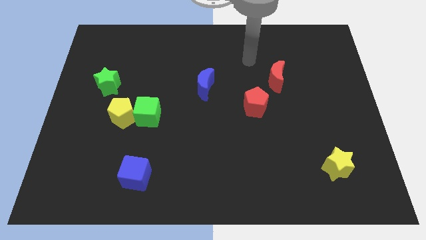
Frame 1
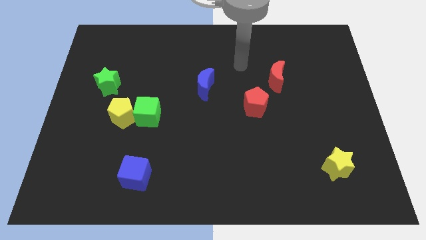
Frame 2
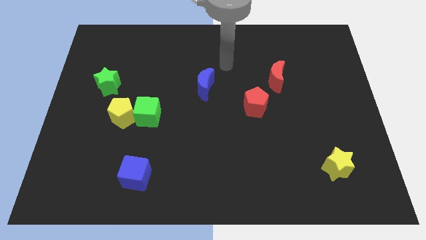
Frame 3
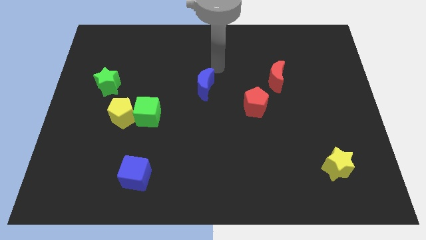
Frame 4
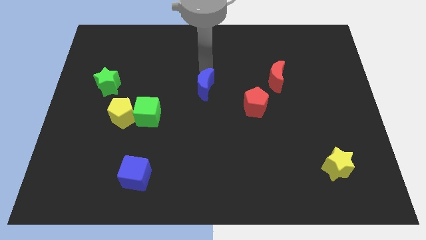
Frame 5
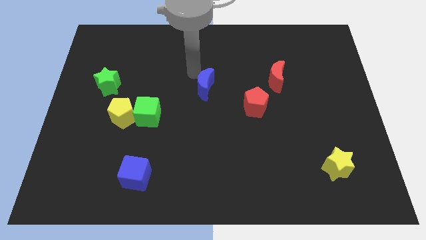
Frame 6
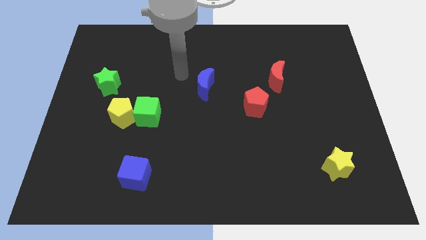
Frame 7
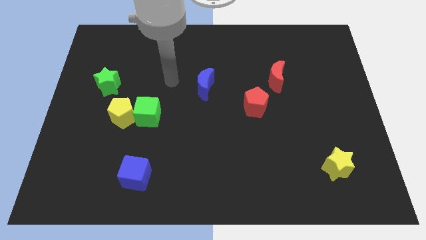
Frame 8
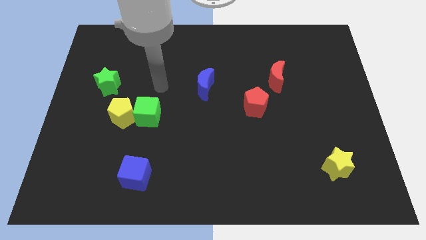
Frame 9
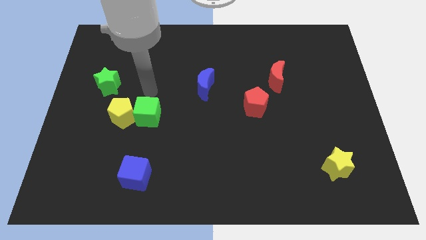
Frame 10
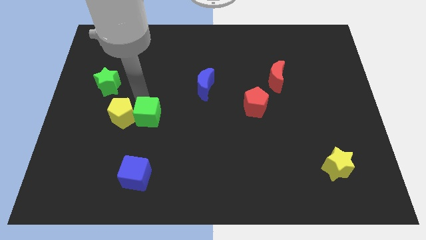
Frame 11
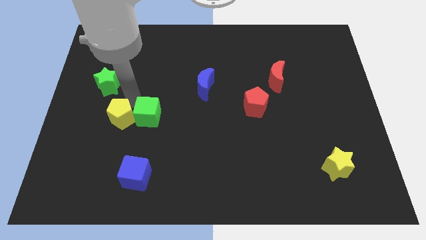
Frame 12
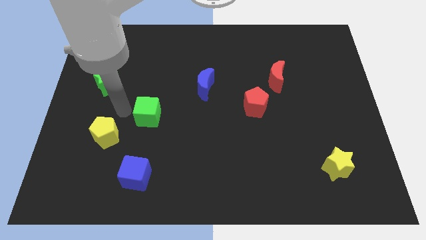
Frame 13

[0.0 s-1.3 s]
pull the green cube apart from the yellow pentagon

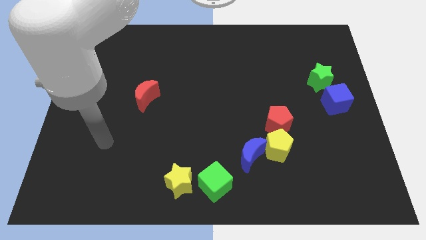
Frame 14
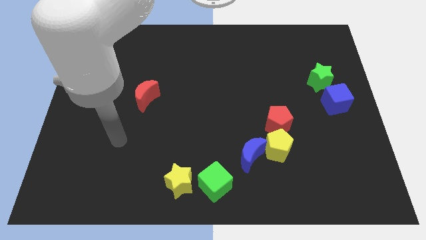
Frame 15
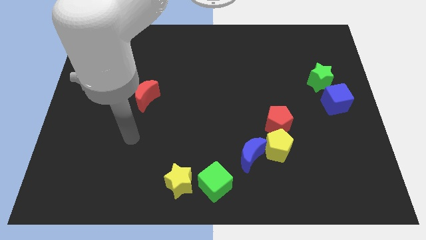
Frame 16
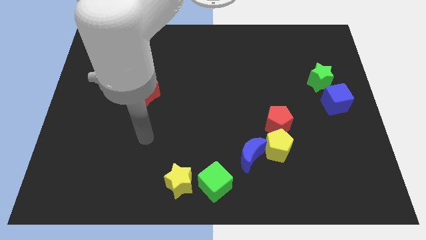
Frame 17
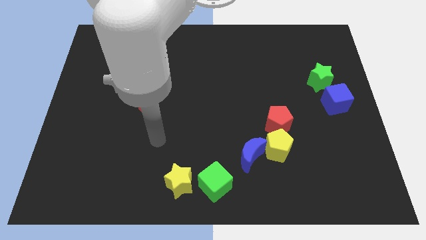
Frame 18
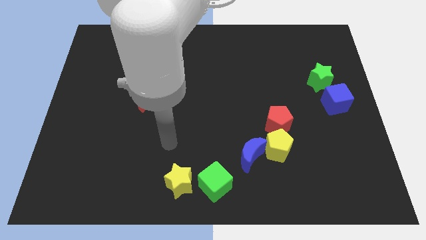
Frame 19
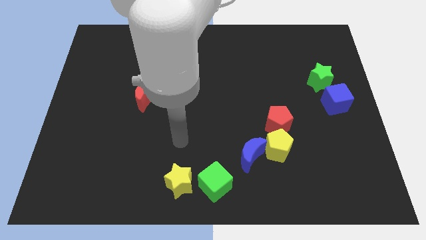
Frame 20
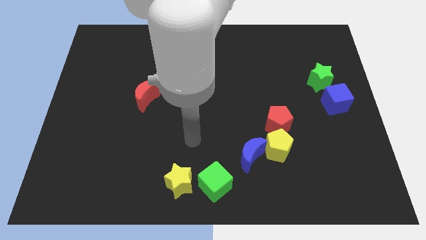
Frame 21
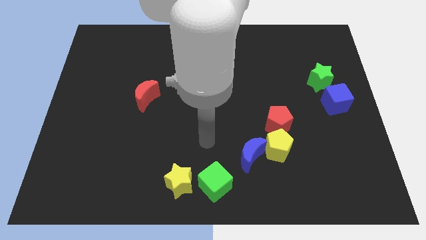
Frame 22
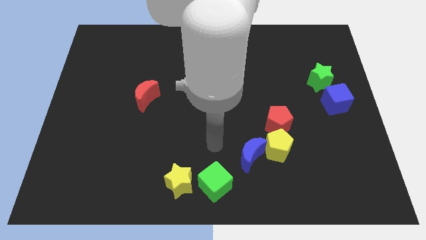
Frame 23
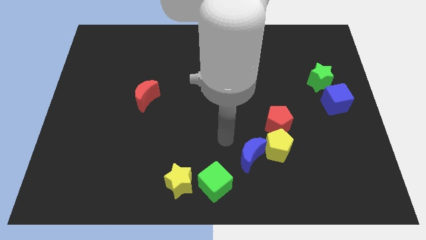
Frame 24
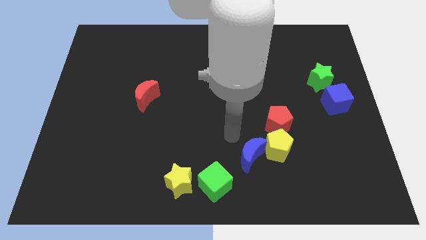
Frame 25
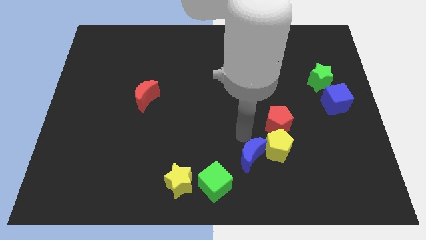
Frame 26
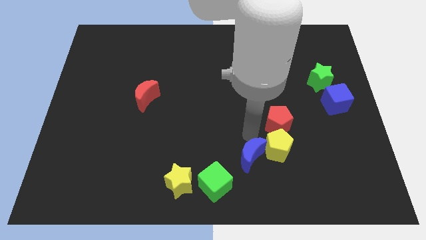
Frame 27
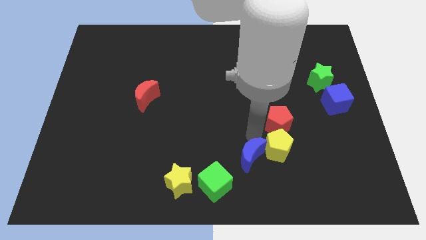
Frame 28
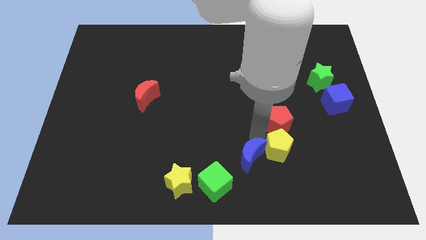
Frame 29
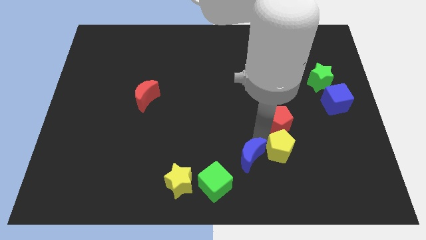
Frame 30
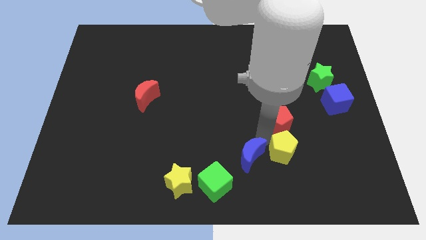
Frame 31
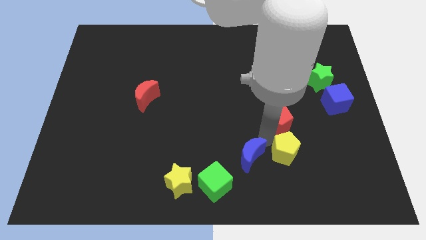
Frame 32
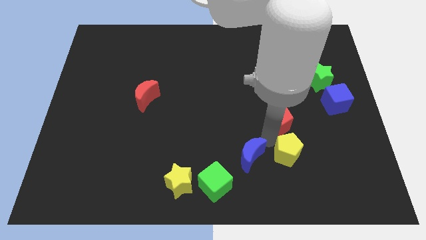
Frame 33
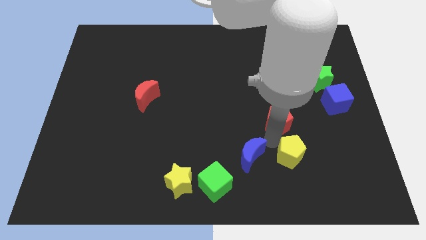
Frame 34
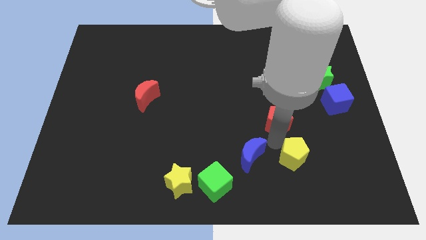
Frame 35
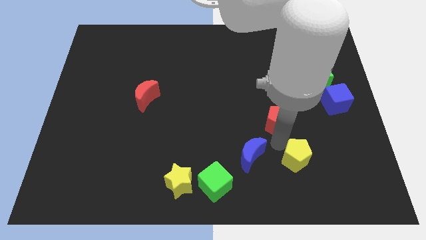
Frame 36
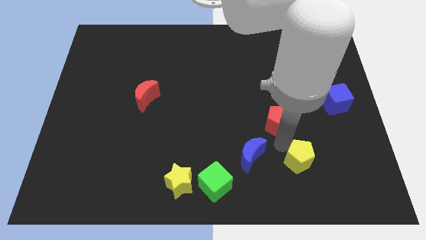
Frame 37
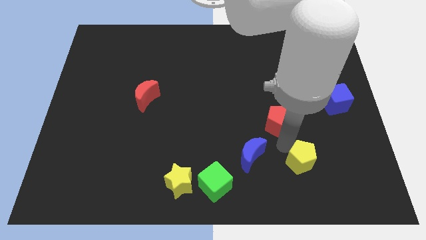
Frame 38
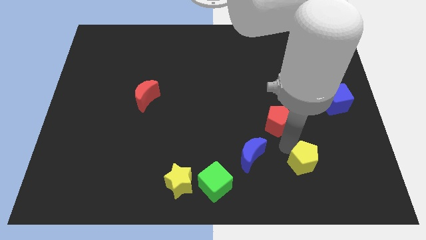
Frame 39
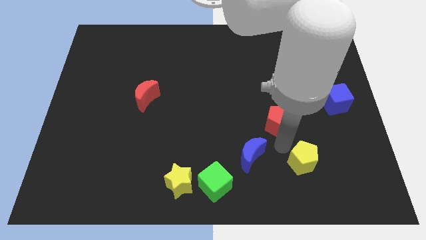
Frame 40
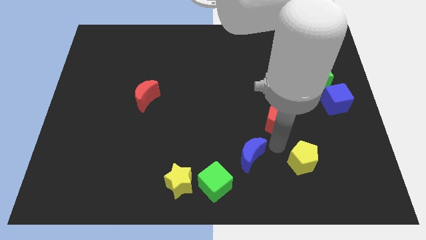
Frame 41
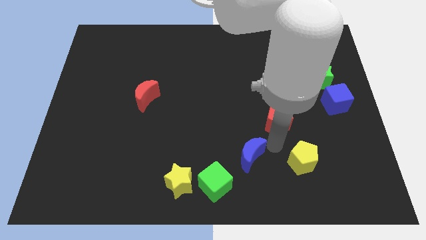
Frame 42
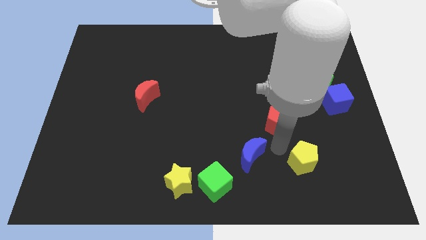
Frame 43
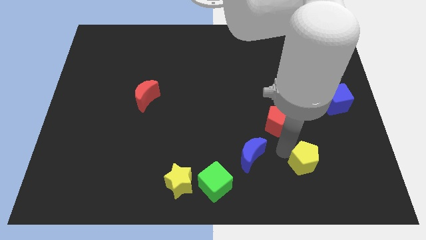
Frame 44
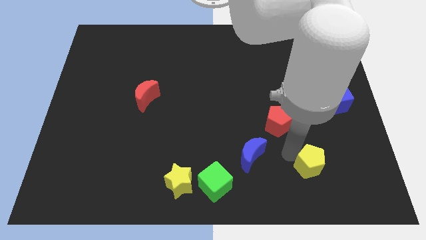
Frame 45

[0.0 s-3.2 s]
move the yellow pentagon away from the blue moon and red pentagon

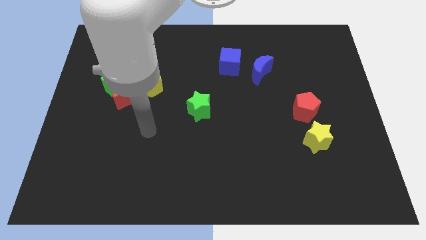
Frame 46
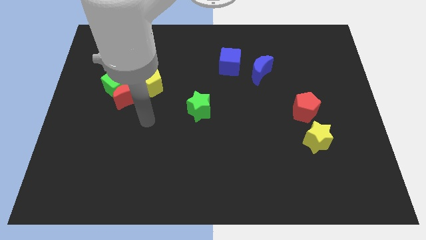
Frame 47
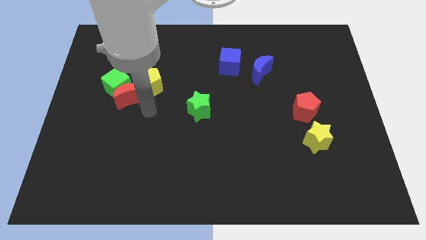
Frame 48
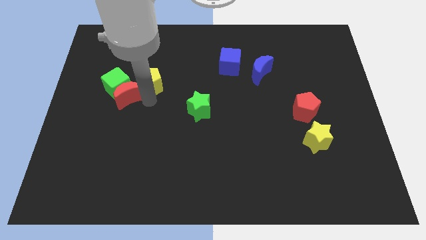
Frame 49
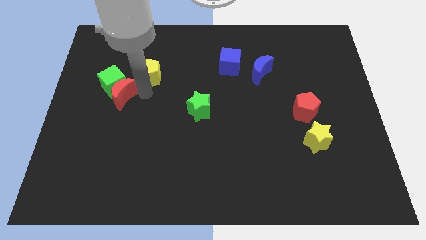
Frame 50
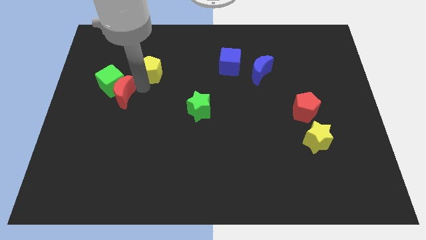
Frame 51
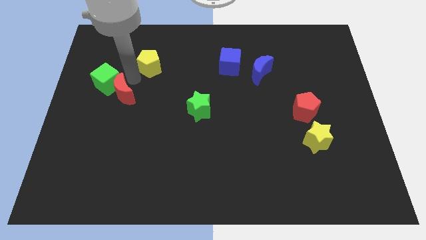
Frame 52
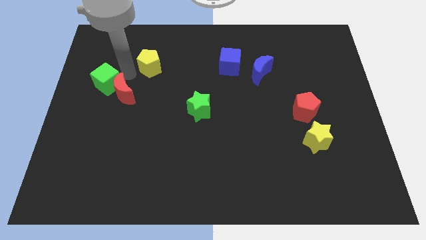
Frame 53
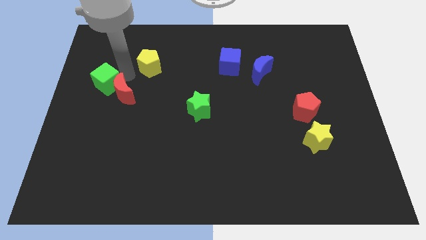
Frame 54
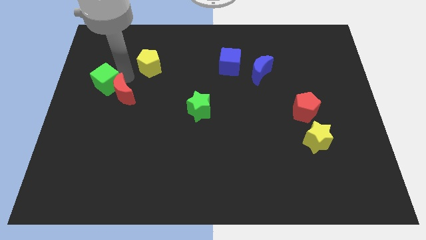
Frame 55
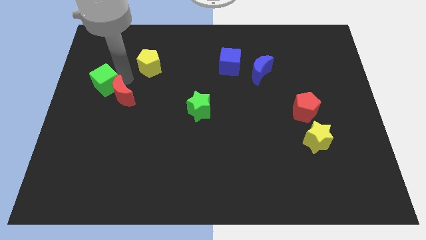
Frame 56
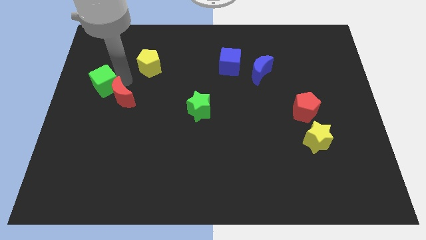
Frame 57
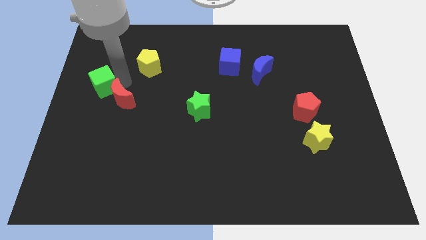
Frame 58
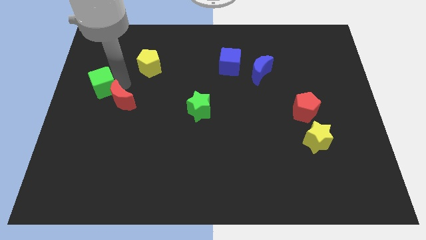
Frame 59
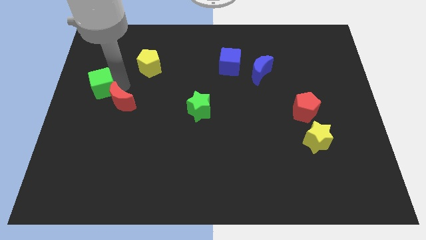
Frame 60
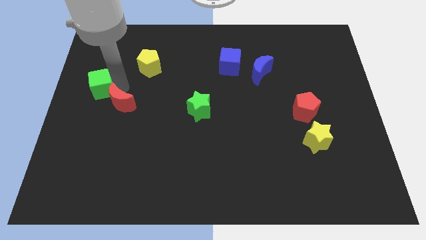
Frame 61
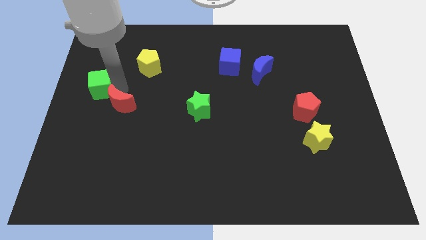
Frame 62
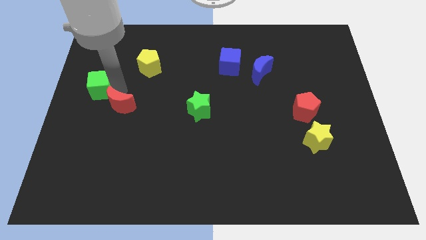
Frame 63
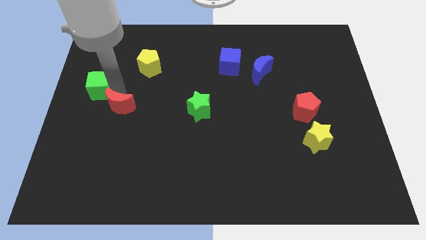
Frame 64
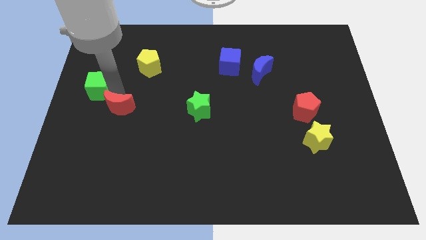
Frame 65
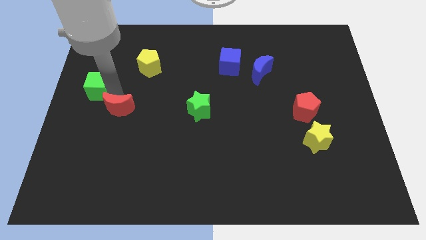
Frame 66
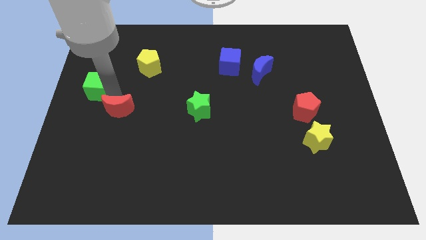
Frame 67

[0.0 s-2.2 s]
move the red moon away from the green cube and yellow pentagon

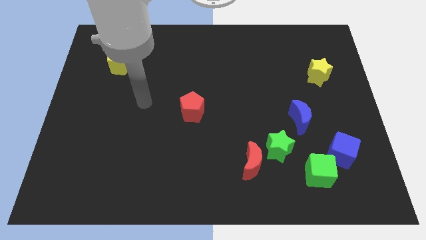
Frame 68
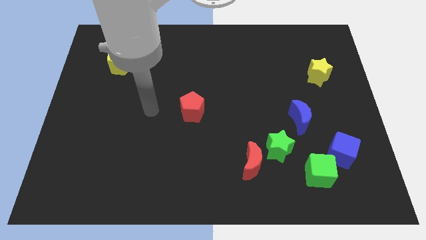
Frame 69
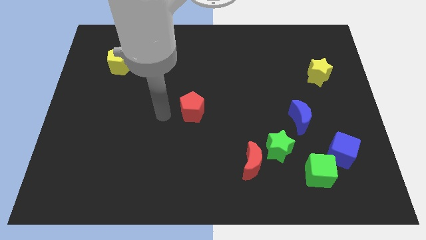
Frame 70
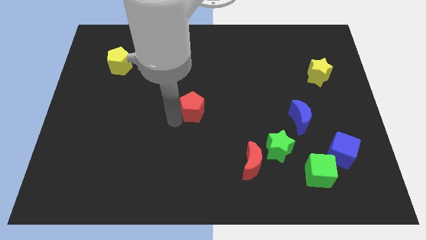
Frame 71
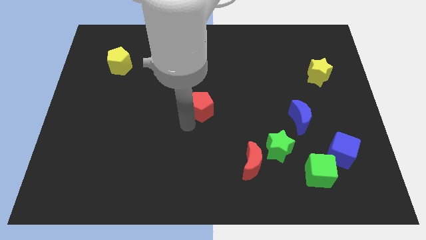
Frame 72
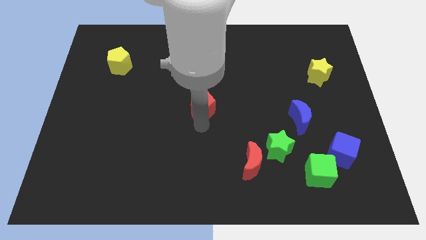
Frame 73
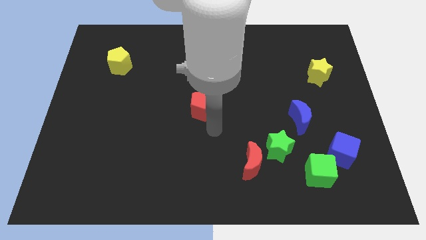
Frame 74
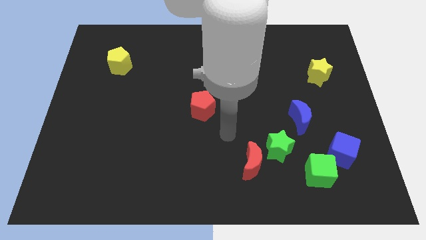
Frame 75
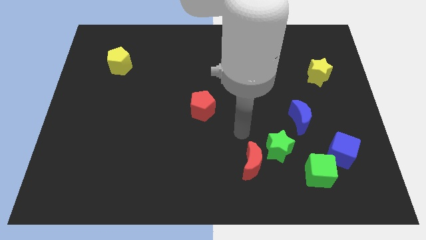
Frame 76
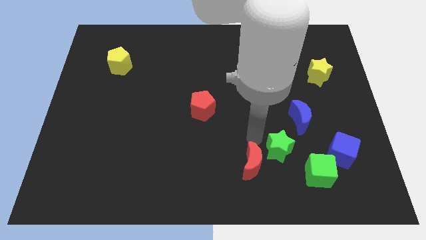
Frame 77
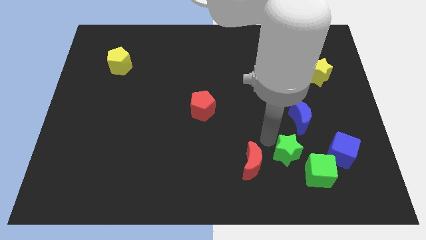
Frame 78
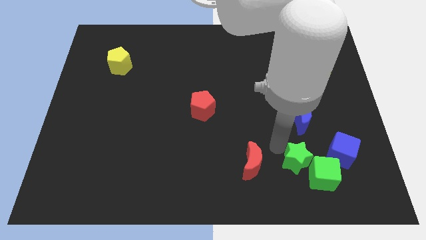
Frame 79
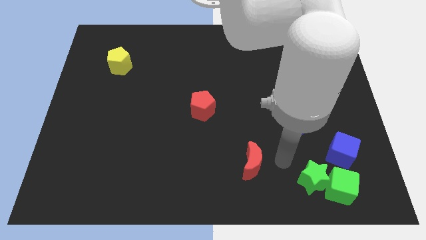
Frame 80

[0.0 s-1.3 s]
move the red moon away from the green star

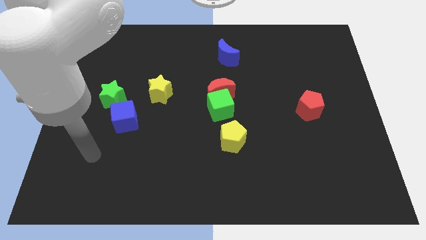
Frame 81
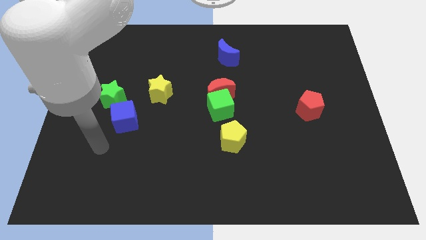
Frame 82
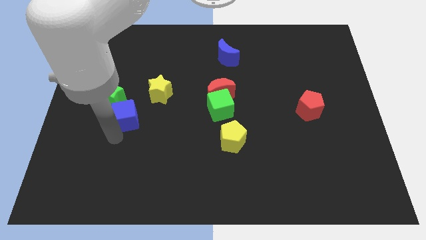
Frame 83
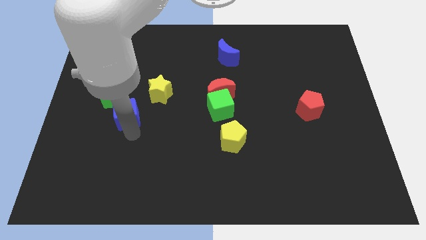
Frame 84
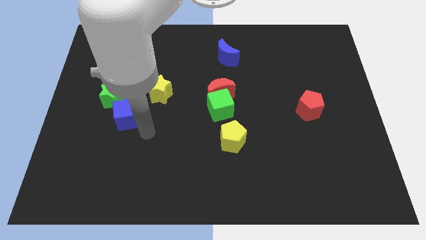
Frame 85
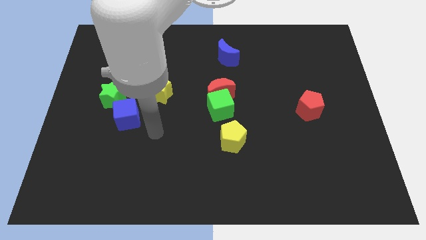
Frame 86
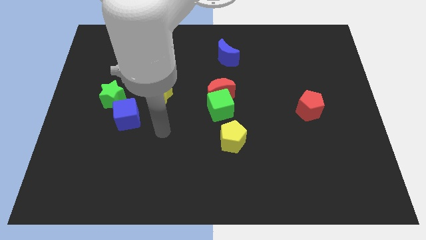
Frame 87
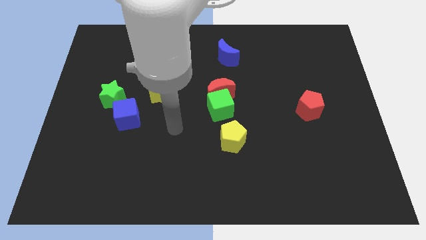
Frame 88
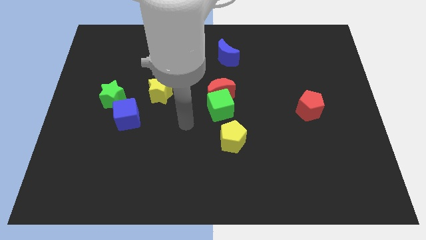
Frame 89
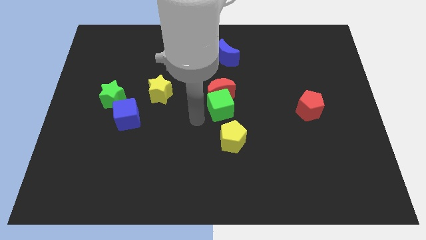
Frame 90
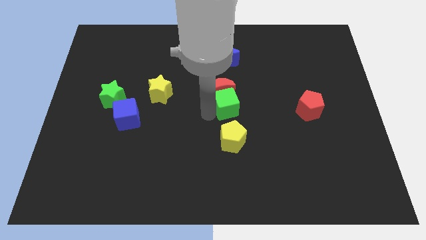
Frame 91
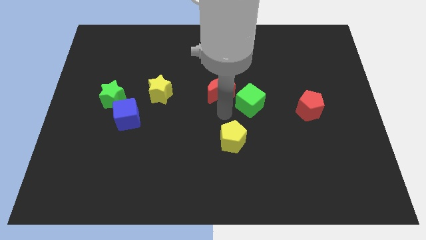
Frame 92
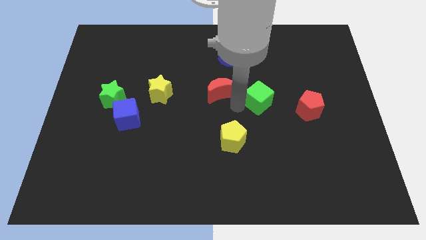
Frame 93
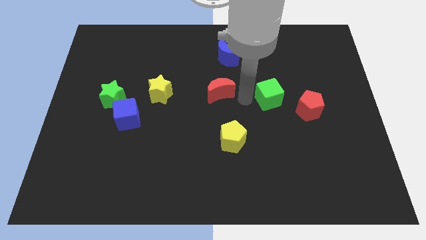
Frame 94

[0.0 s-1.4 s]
pull the red moon apart from the green cube
